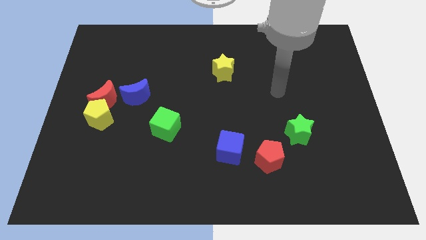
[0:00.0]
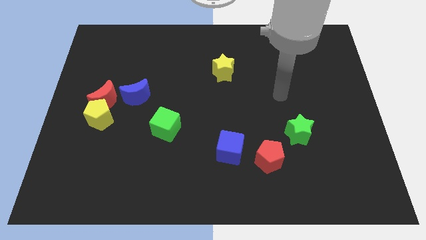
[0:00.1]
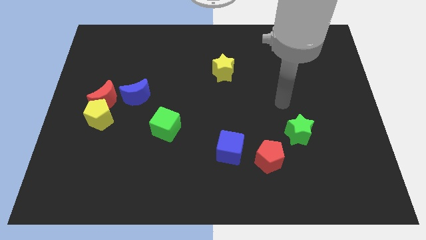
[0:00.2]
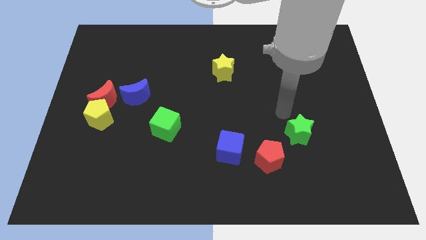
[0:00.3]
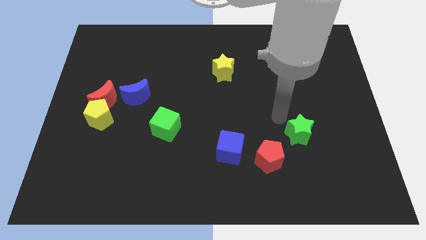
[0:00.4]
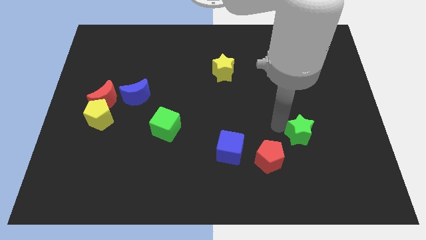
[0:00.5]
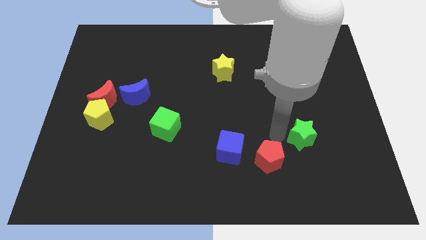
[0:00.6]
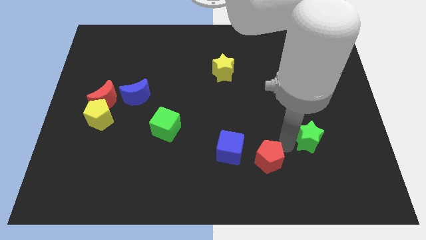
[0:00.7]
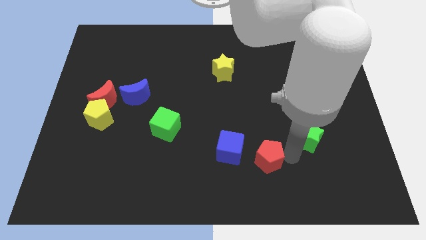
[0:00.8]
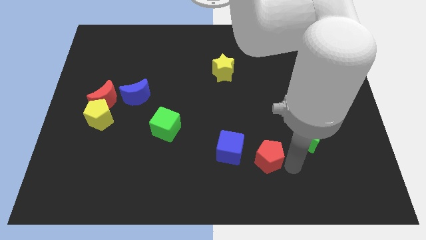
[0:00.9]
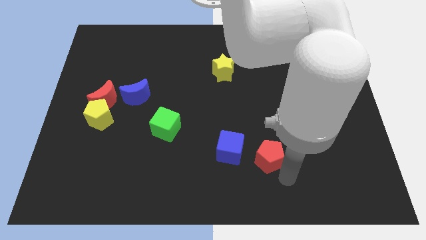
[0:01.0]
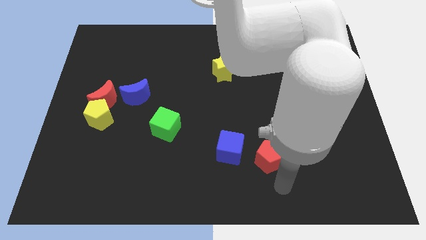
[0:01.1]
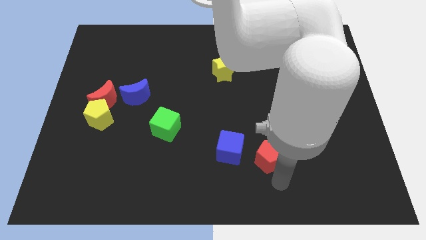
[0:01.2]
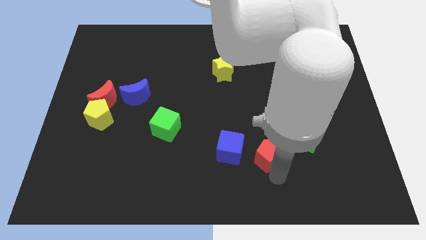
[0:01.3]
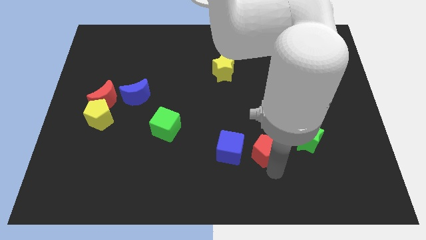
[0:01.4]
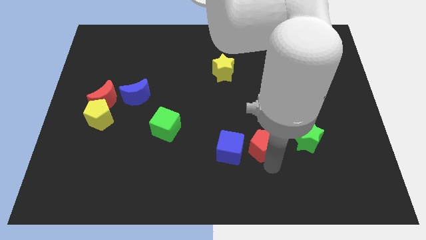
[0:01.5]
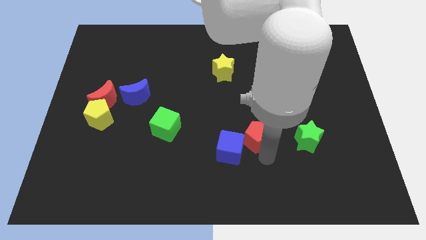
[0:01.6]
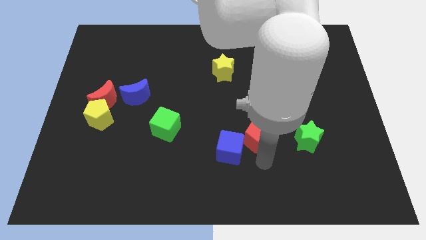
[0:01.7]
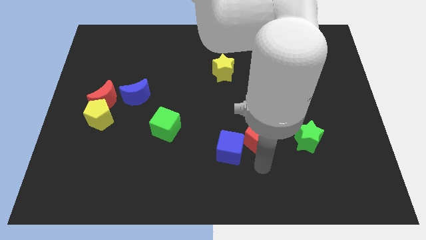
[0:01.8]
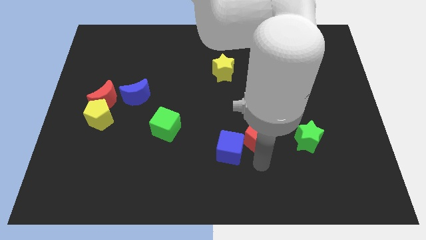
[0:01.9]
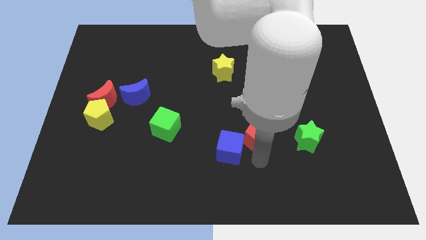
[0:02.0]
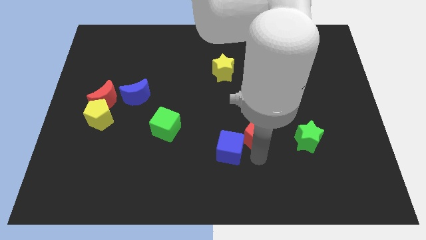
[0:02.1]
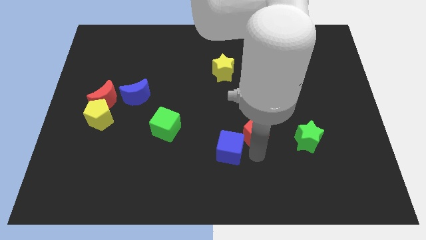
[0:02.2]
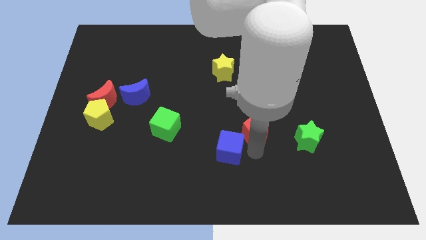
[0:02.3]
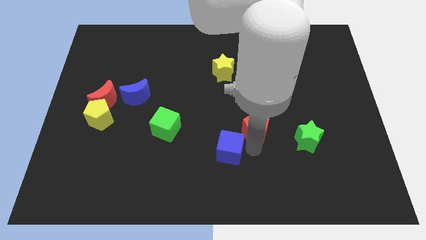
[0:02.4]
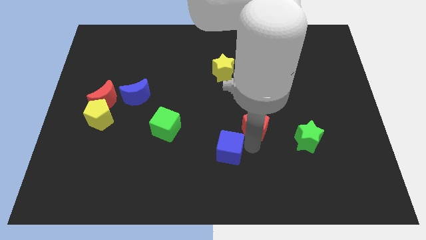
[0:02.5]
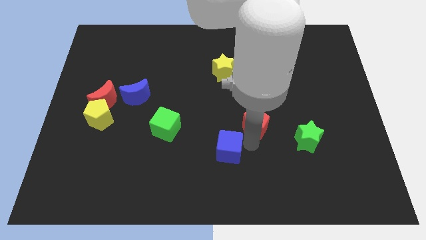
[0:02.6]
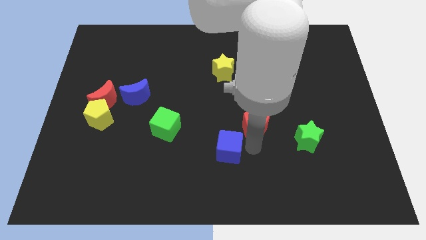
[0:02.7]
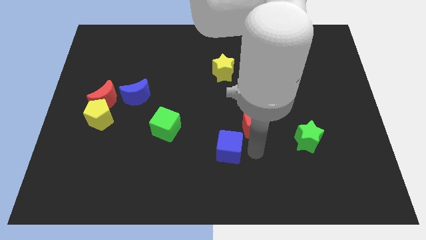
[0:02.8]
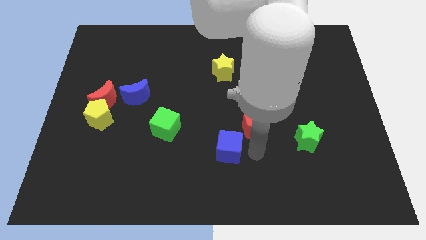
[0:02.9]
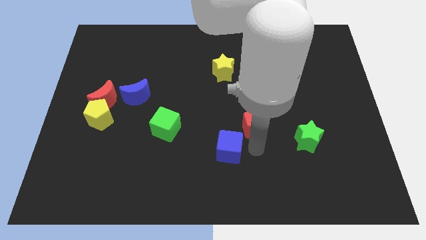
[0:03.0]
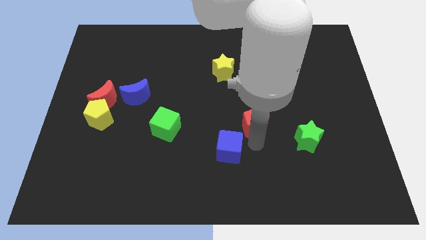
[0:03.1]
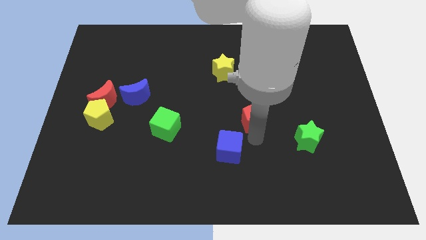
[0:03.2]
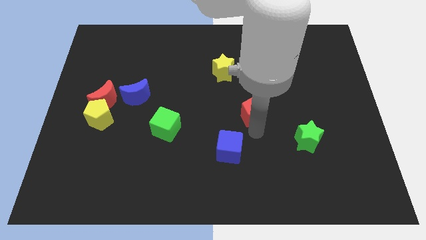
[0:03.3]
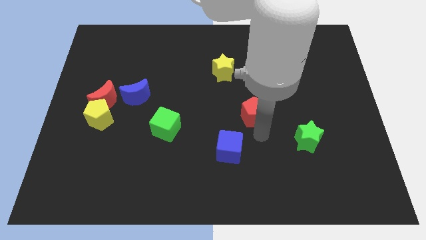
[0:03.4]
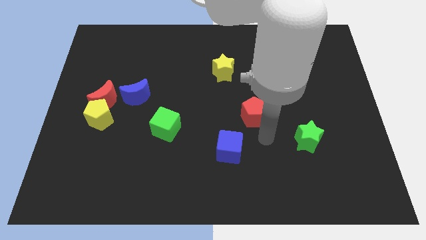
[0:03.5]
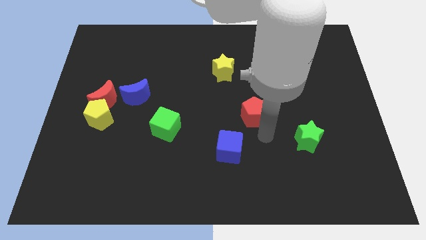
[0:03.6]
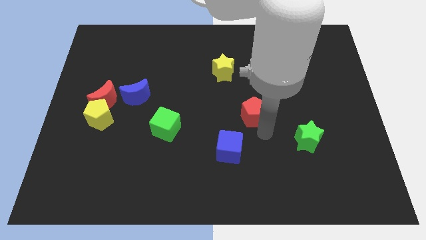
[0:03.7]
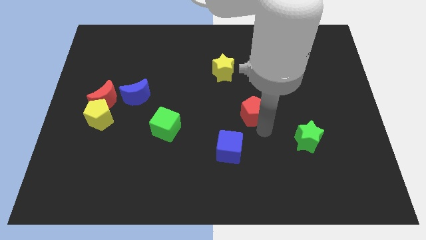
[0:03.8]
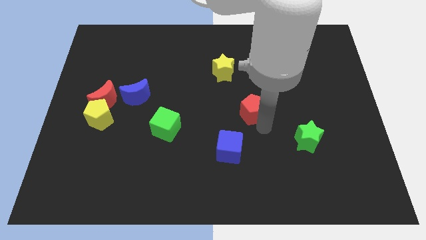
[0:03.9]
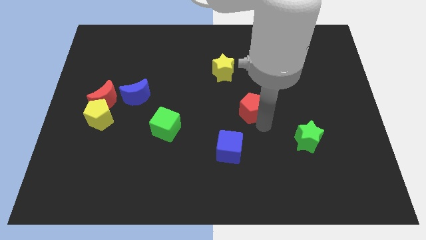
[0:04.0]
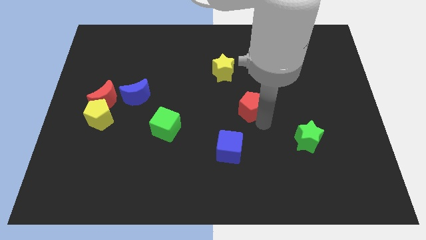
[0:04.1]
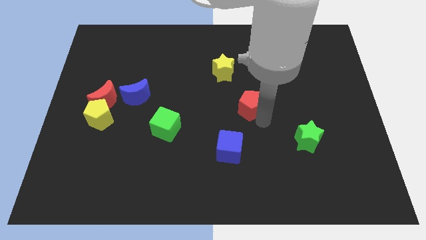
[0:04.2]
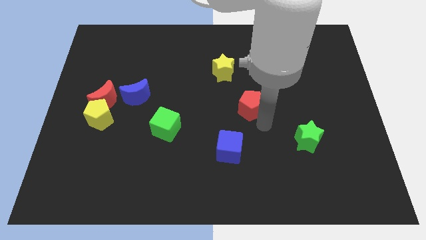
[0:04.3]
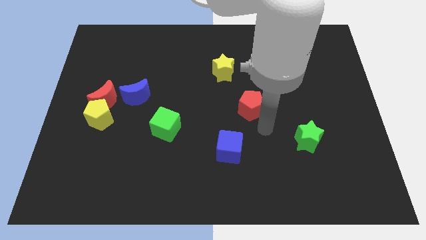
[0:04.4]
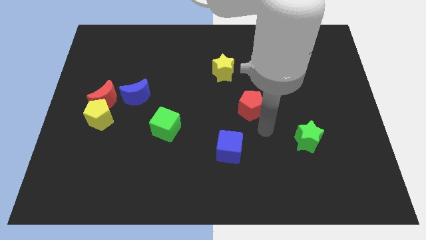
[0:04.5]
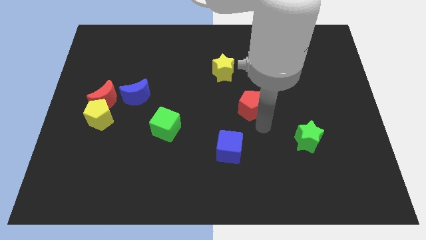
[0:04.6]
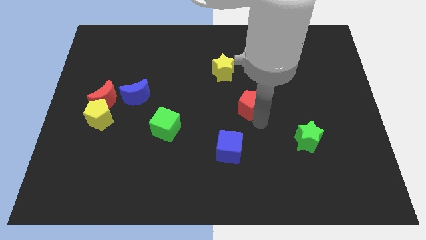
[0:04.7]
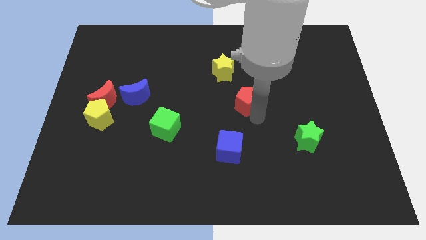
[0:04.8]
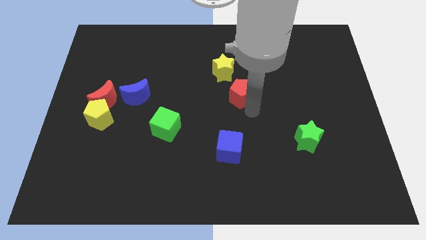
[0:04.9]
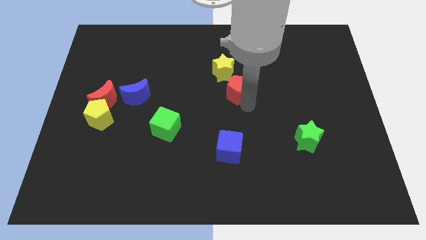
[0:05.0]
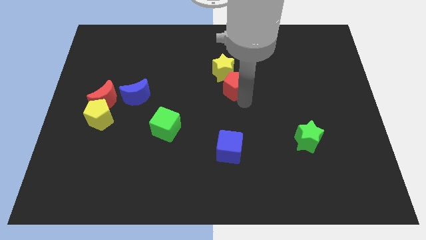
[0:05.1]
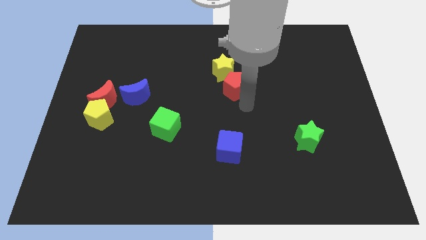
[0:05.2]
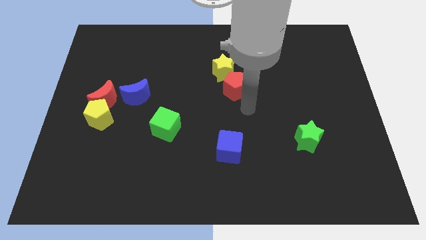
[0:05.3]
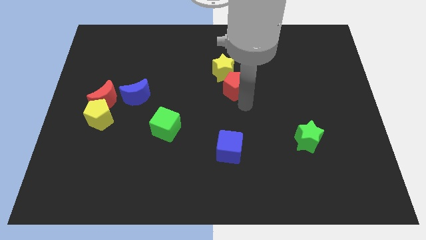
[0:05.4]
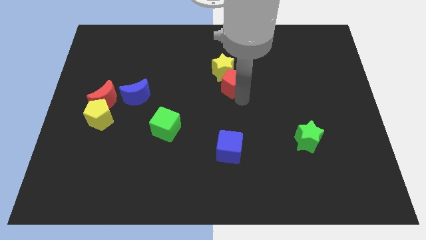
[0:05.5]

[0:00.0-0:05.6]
push the red pentagon to the yellow star

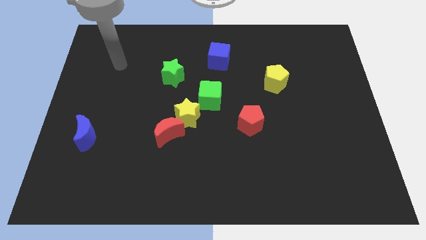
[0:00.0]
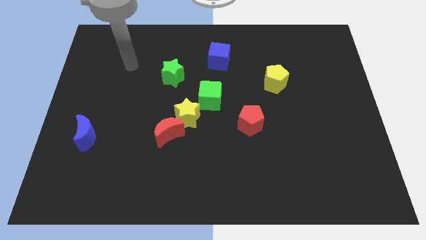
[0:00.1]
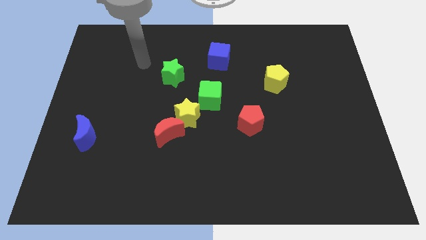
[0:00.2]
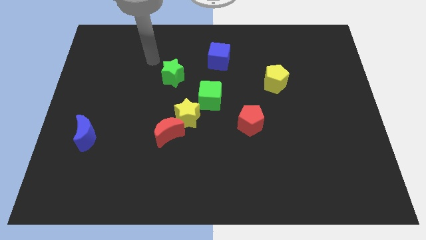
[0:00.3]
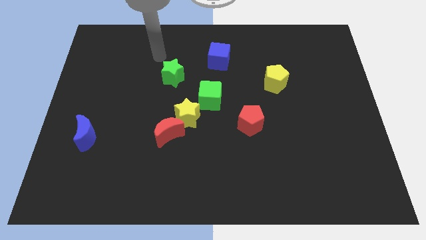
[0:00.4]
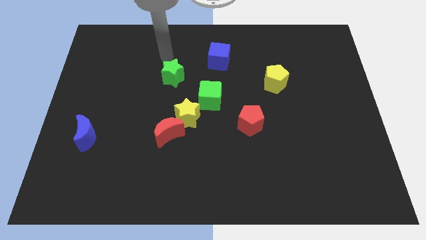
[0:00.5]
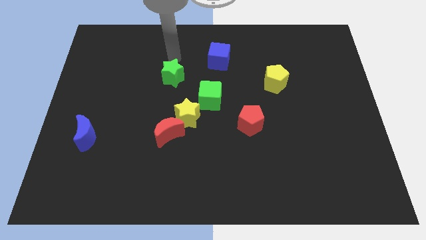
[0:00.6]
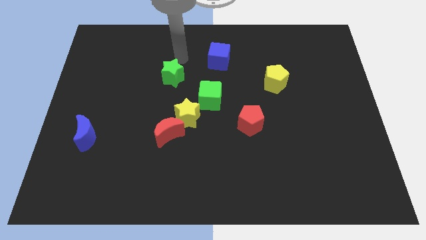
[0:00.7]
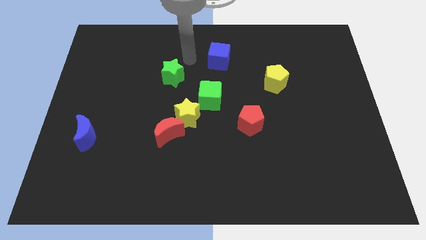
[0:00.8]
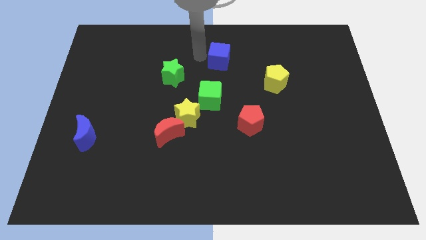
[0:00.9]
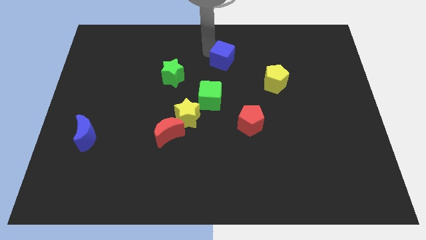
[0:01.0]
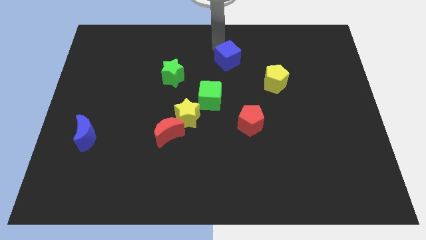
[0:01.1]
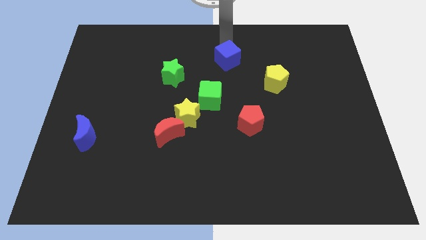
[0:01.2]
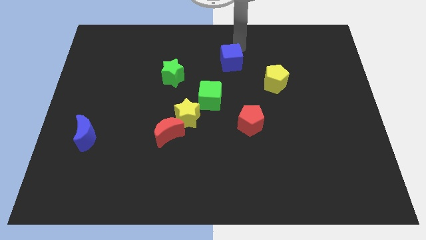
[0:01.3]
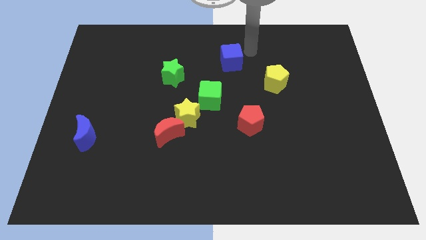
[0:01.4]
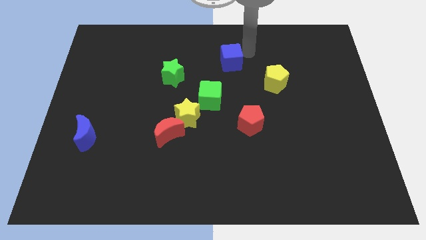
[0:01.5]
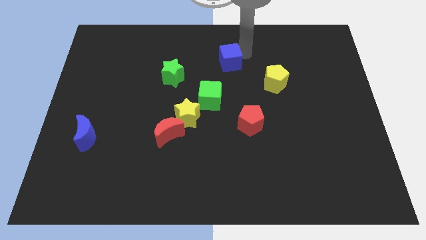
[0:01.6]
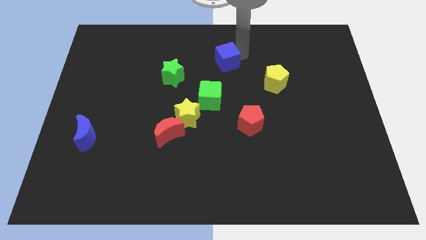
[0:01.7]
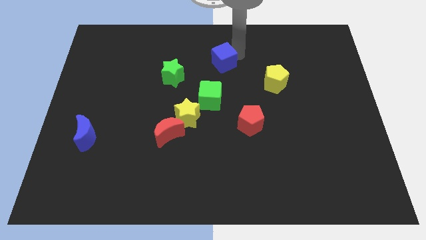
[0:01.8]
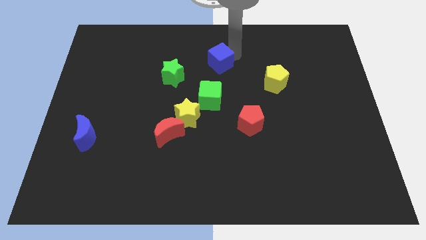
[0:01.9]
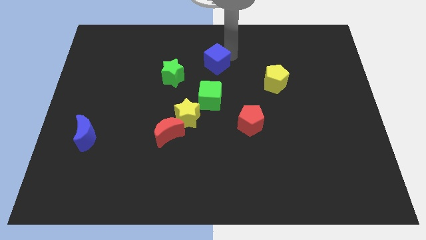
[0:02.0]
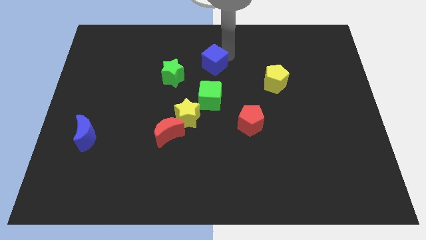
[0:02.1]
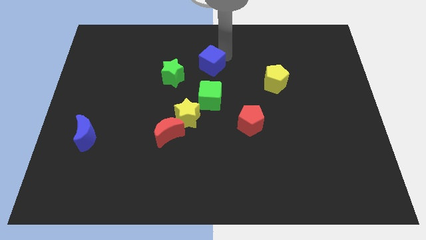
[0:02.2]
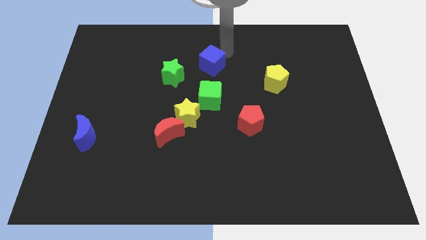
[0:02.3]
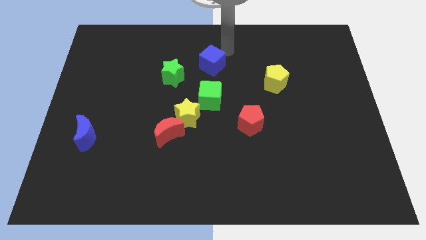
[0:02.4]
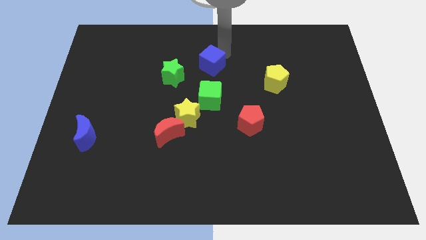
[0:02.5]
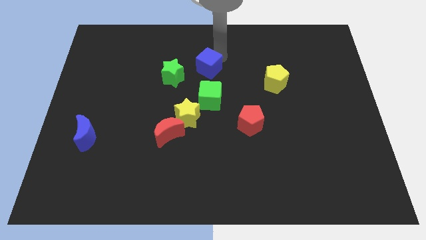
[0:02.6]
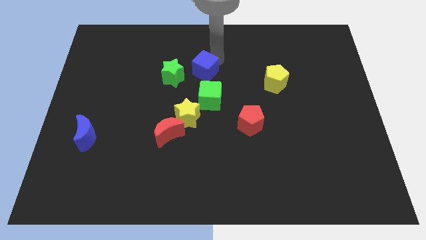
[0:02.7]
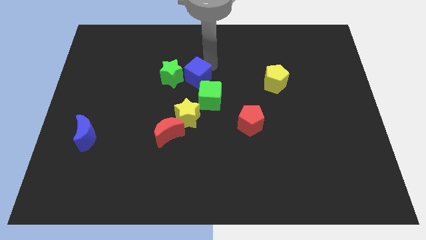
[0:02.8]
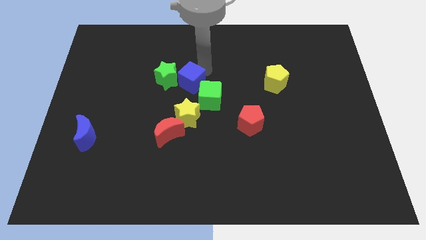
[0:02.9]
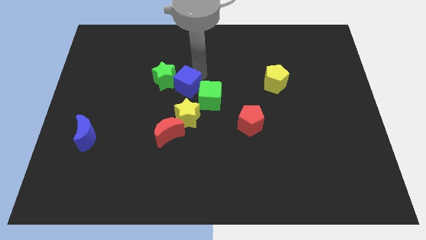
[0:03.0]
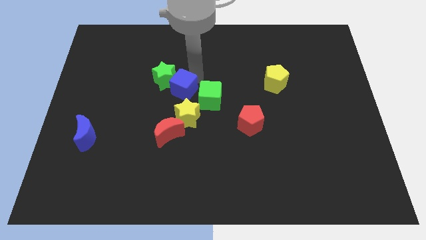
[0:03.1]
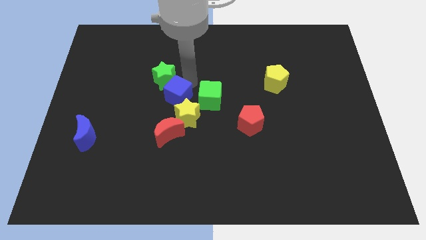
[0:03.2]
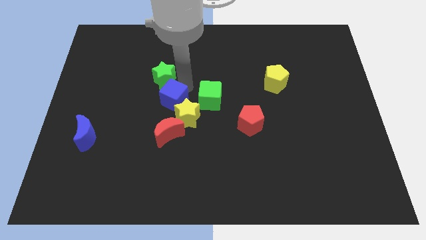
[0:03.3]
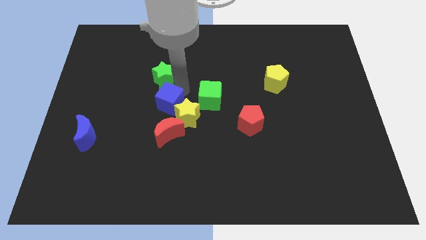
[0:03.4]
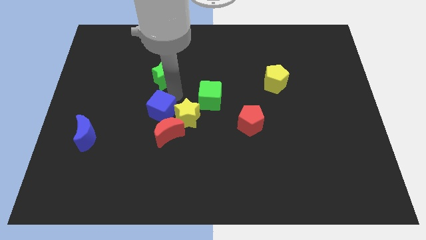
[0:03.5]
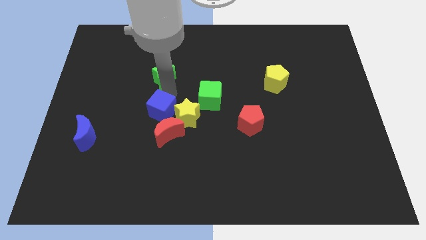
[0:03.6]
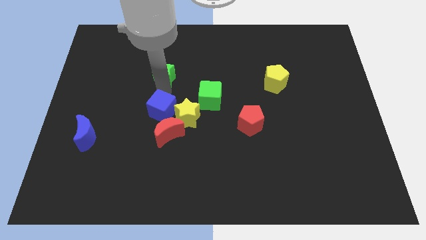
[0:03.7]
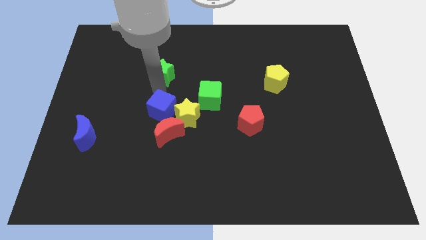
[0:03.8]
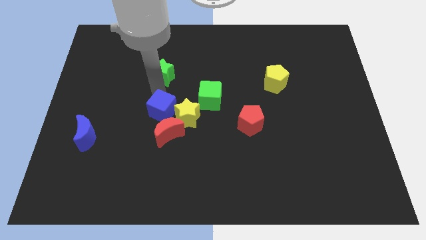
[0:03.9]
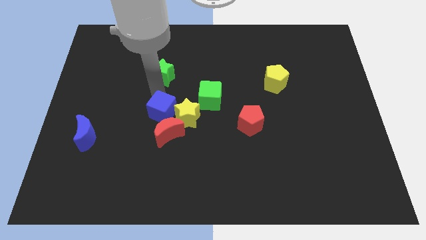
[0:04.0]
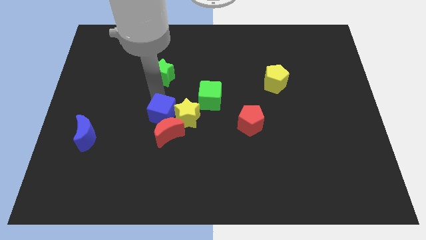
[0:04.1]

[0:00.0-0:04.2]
put the blue cube towards the red moon
